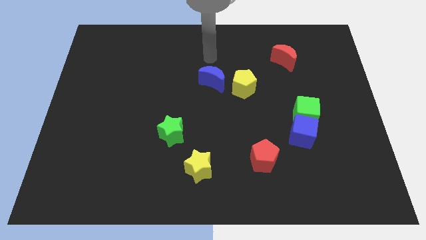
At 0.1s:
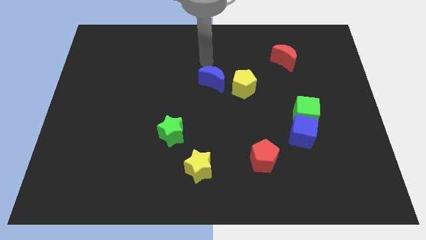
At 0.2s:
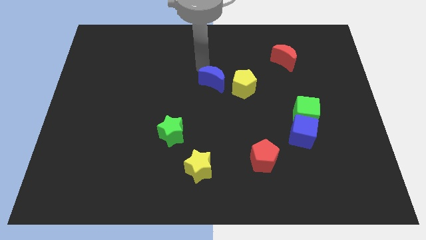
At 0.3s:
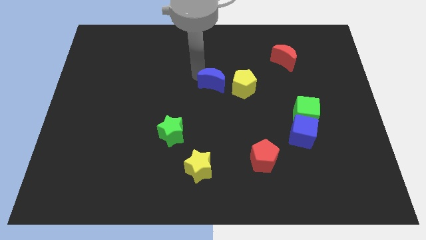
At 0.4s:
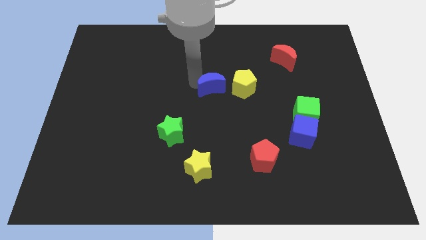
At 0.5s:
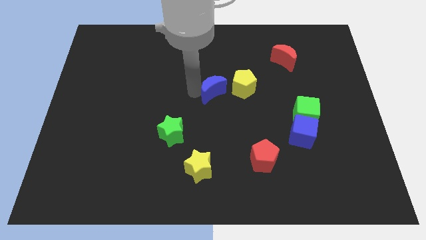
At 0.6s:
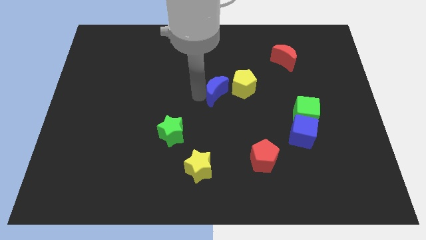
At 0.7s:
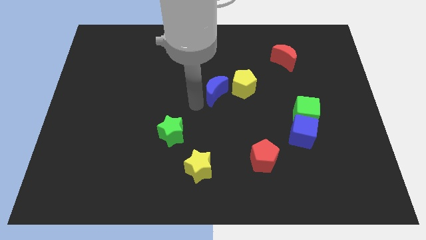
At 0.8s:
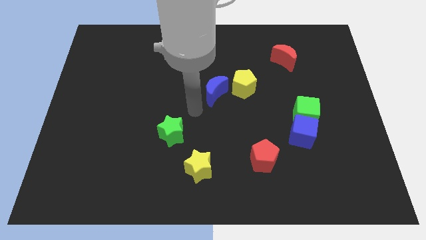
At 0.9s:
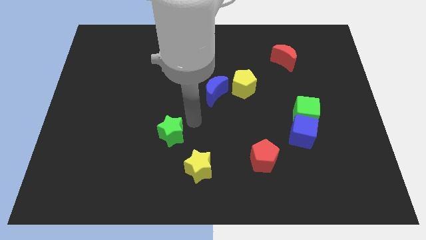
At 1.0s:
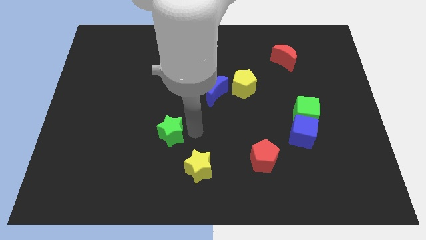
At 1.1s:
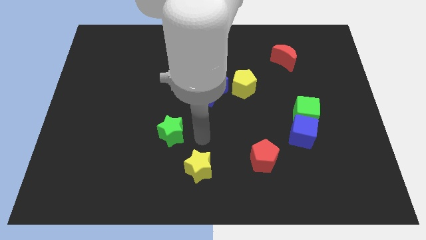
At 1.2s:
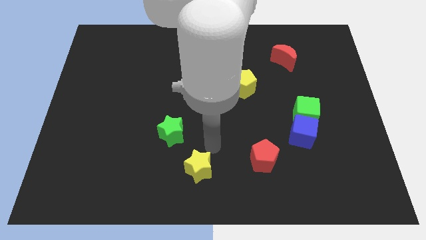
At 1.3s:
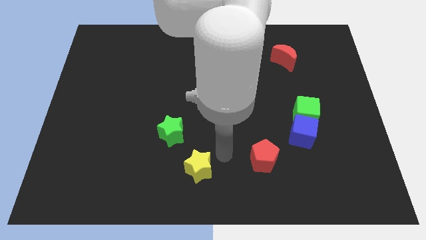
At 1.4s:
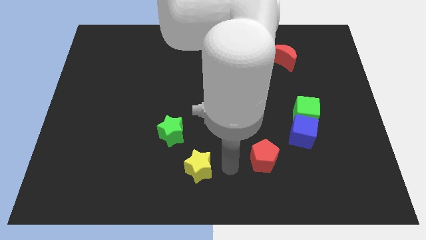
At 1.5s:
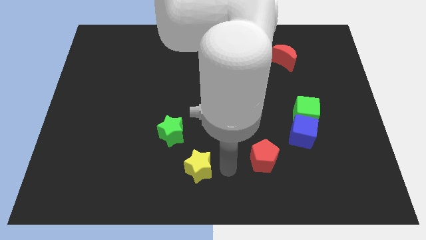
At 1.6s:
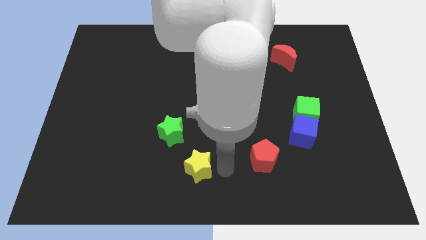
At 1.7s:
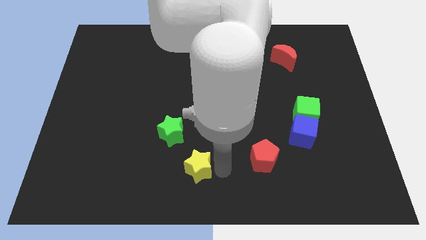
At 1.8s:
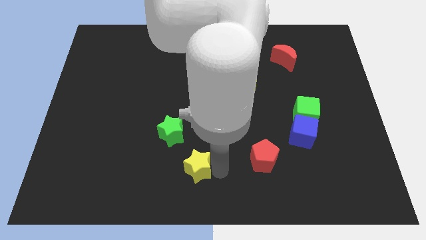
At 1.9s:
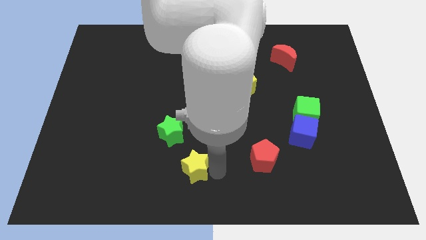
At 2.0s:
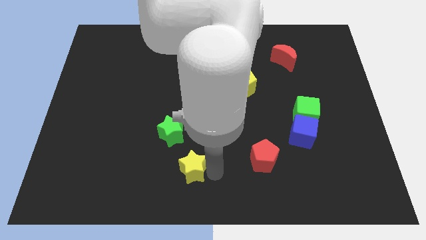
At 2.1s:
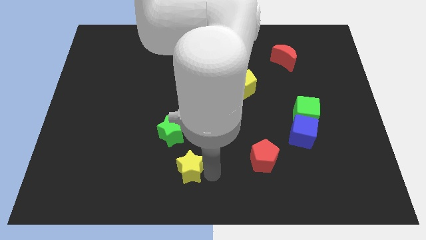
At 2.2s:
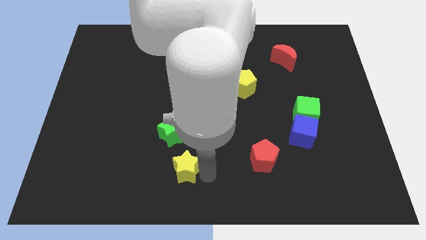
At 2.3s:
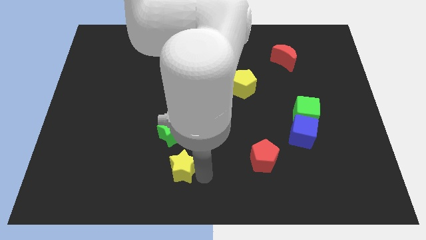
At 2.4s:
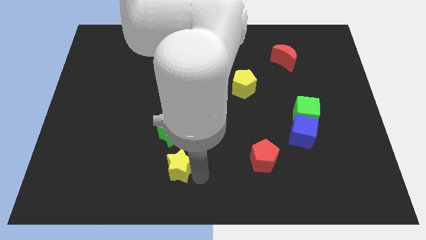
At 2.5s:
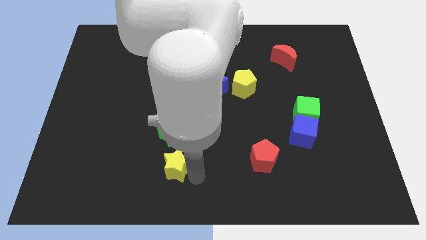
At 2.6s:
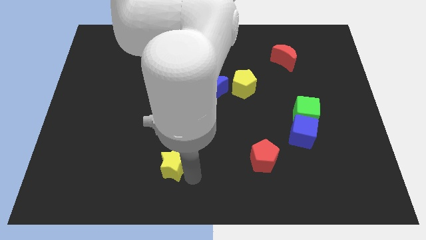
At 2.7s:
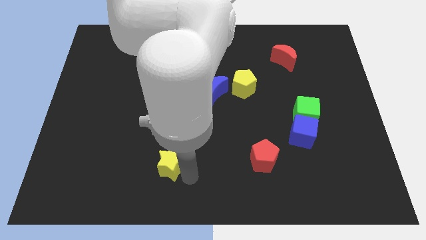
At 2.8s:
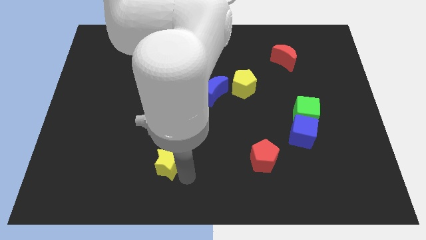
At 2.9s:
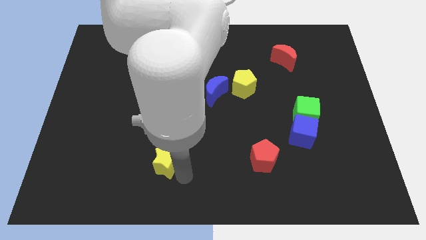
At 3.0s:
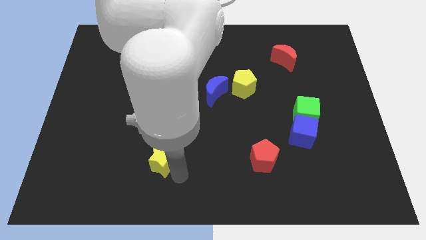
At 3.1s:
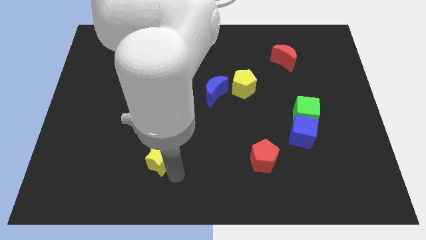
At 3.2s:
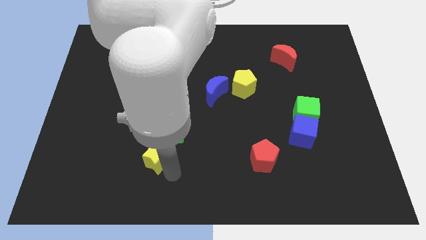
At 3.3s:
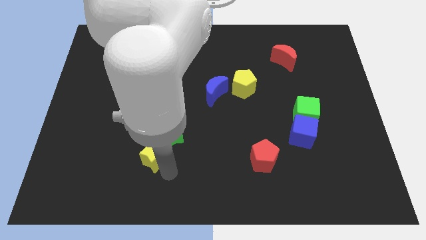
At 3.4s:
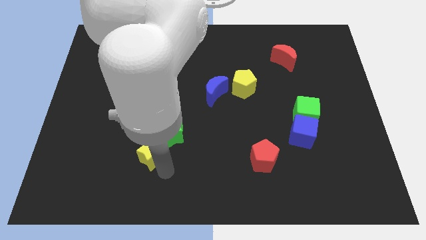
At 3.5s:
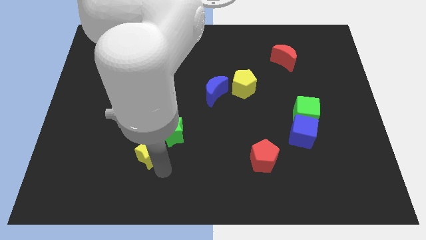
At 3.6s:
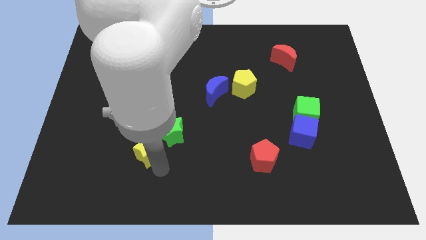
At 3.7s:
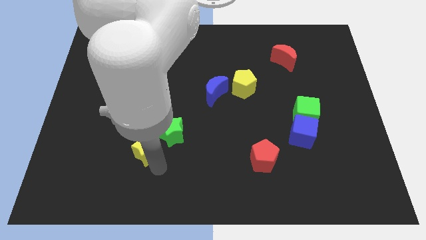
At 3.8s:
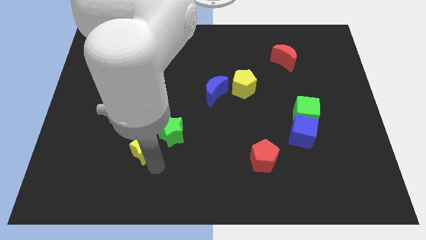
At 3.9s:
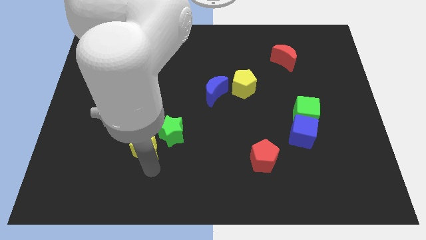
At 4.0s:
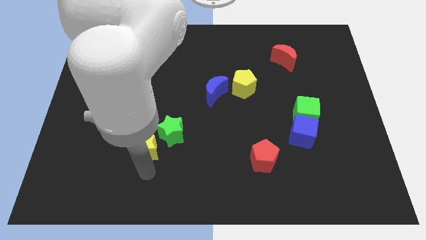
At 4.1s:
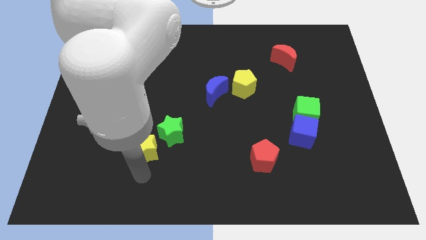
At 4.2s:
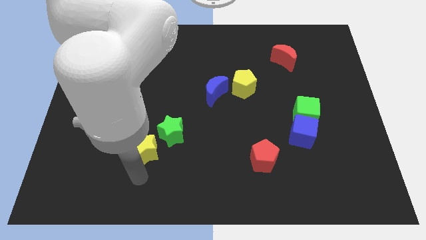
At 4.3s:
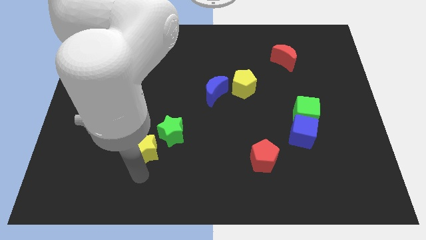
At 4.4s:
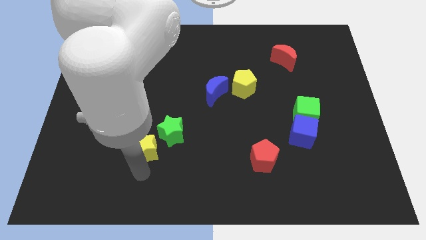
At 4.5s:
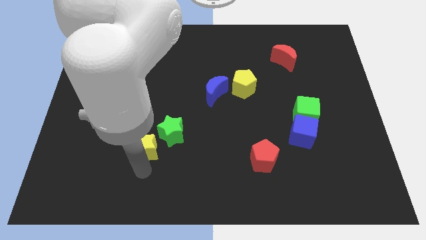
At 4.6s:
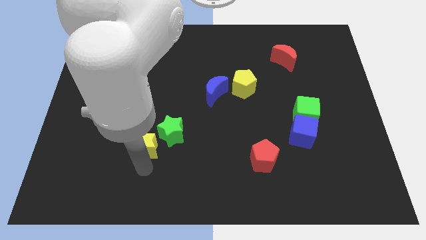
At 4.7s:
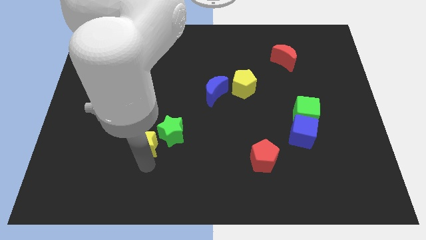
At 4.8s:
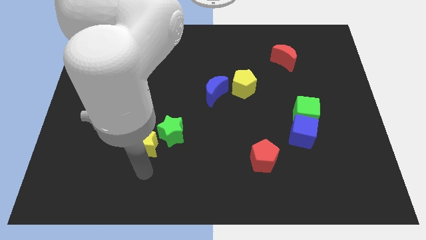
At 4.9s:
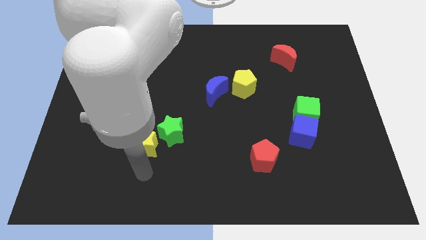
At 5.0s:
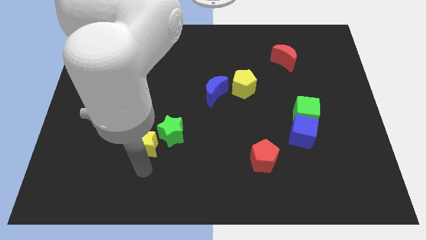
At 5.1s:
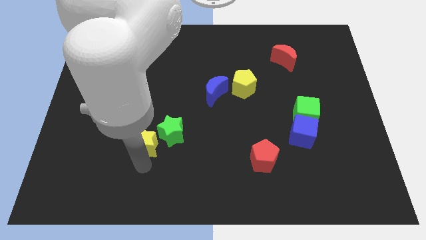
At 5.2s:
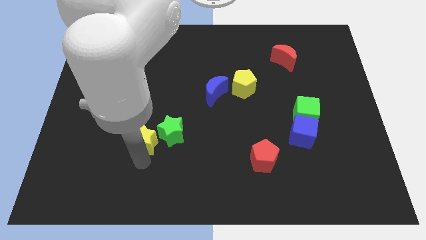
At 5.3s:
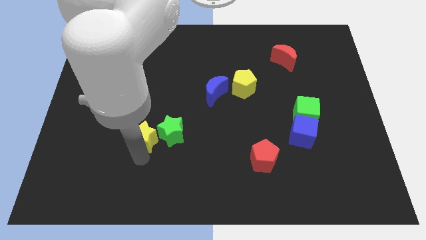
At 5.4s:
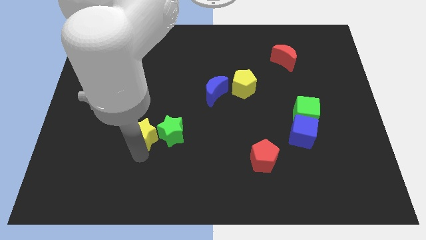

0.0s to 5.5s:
push the yellow star to the top left of the green star

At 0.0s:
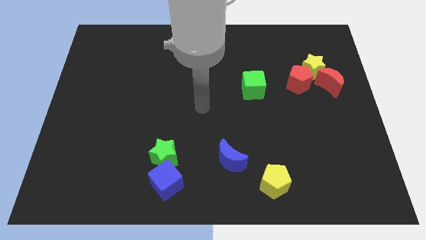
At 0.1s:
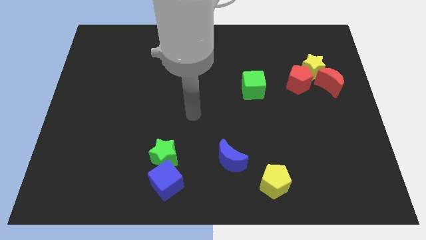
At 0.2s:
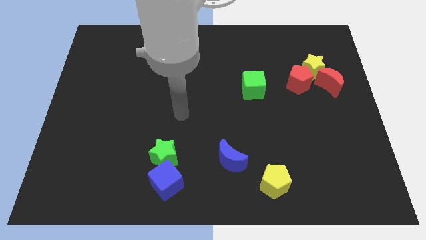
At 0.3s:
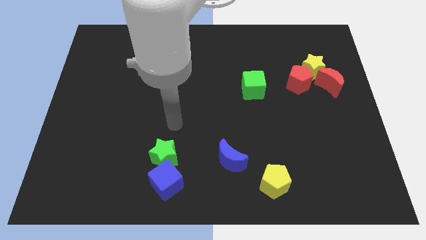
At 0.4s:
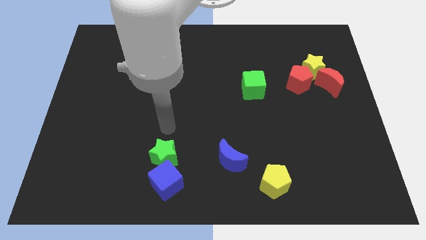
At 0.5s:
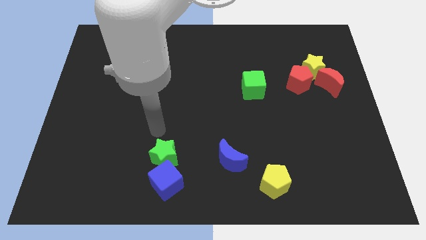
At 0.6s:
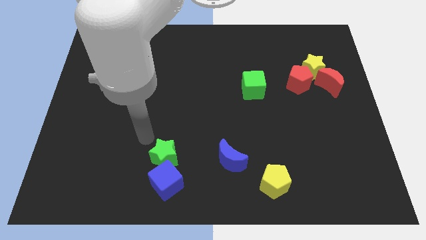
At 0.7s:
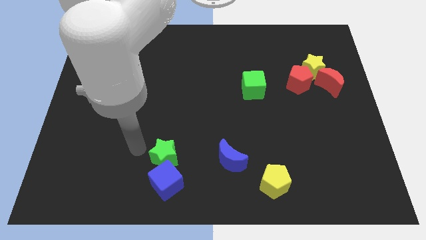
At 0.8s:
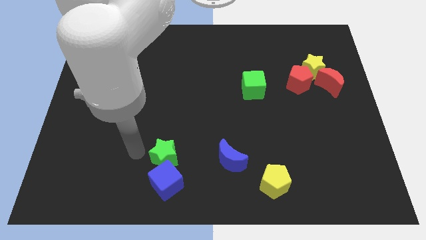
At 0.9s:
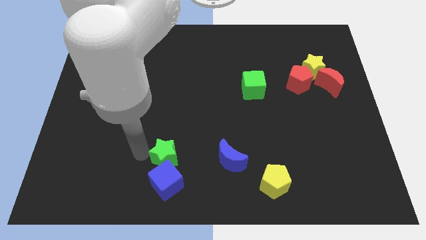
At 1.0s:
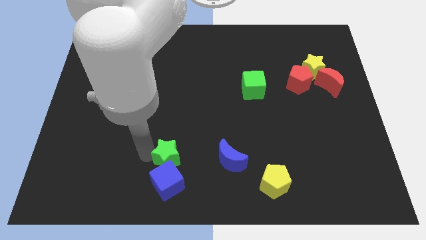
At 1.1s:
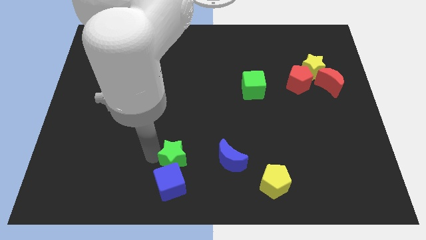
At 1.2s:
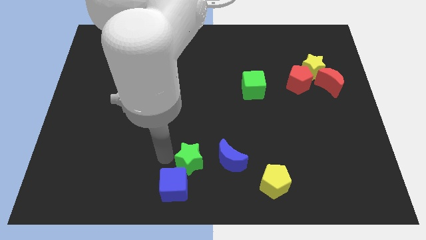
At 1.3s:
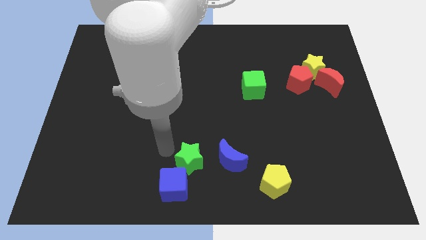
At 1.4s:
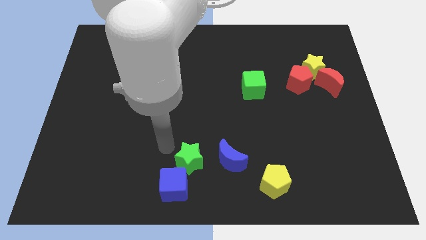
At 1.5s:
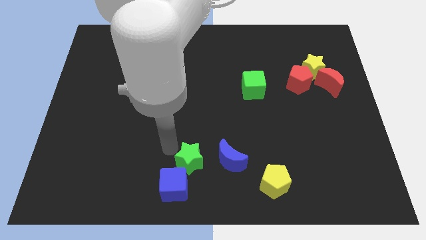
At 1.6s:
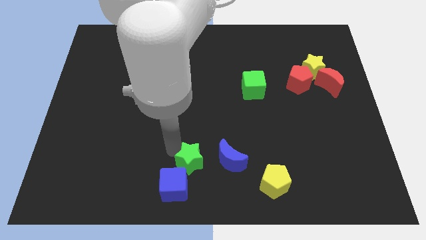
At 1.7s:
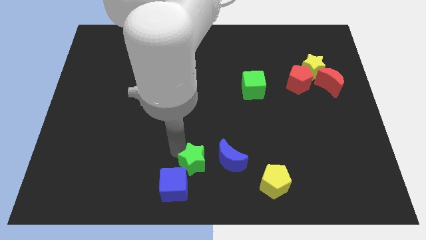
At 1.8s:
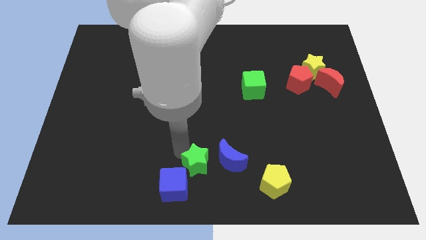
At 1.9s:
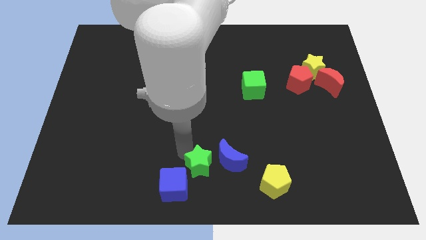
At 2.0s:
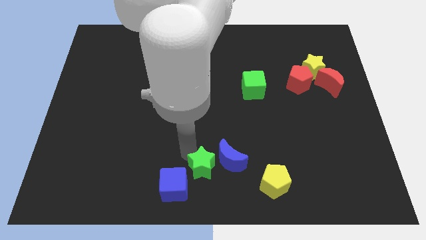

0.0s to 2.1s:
slide the green star just left of the yellow pentagon

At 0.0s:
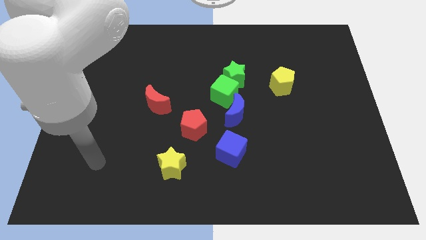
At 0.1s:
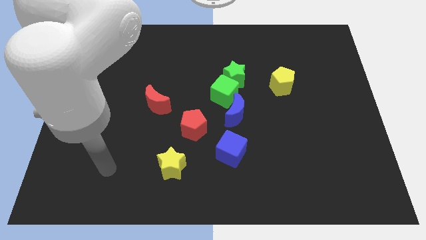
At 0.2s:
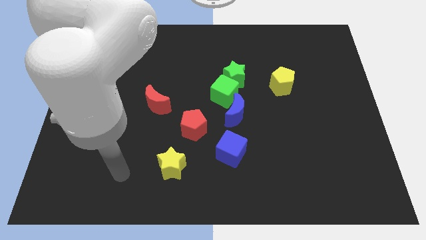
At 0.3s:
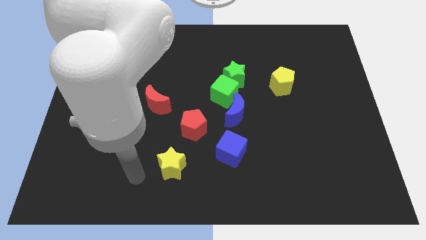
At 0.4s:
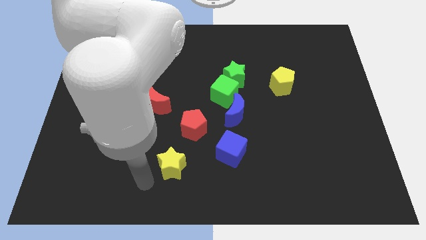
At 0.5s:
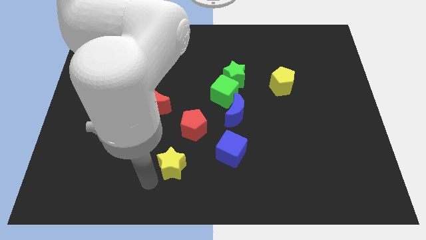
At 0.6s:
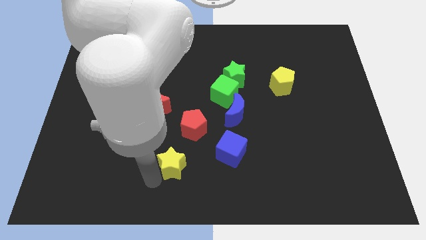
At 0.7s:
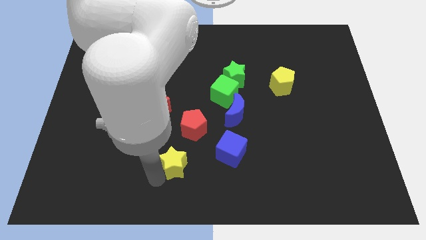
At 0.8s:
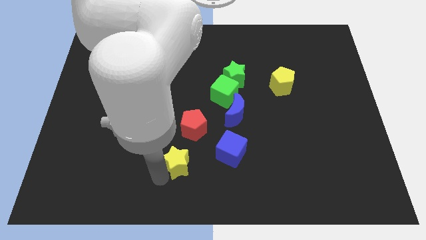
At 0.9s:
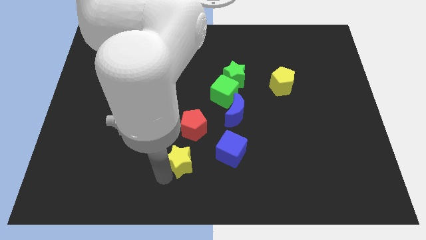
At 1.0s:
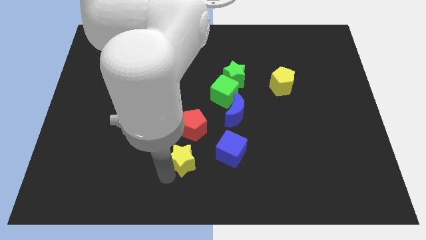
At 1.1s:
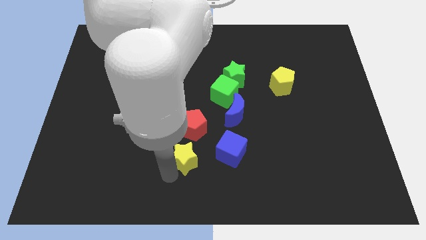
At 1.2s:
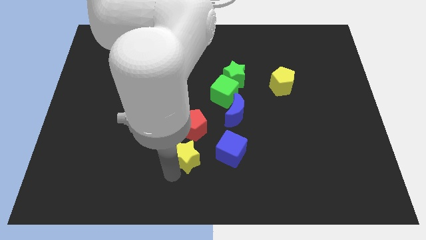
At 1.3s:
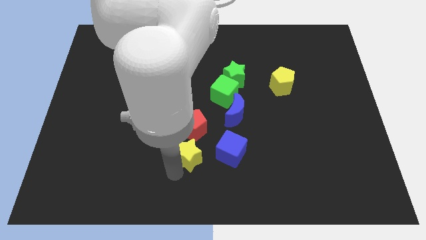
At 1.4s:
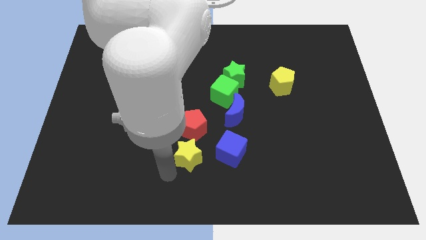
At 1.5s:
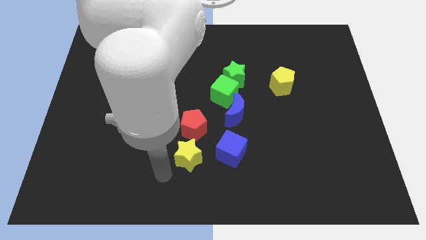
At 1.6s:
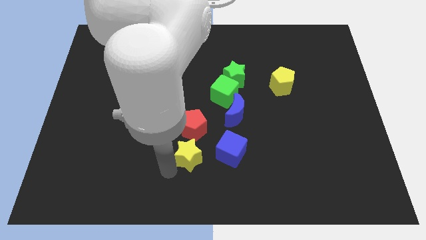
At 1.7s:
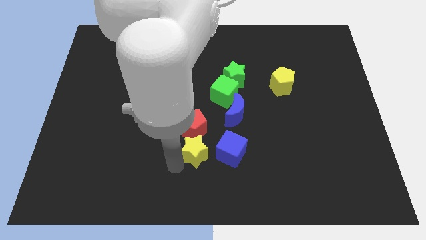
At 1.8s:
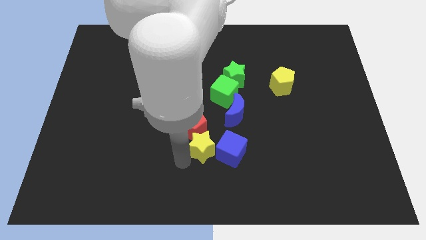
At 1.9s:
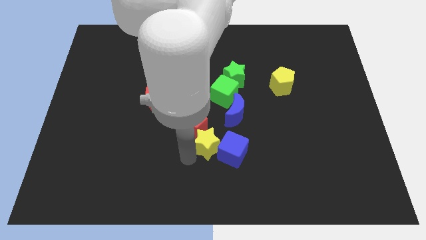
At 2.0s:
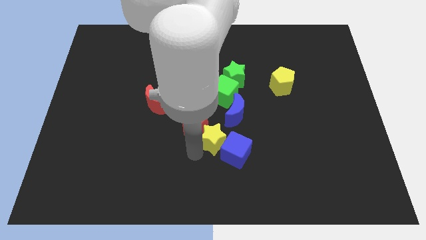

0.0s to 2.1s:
push the yellow star just right of the red pentagon
